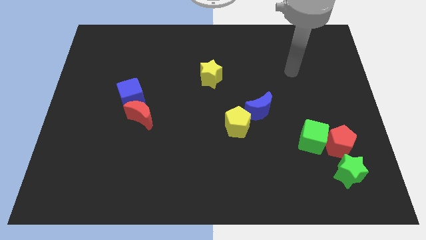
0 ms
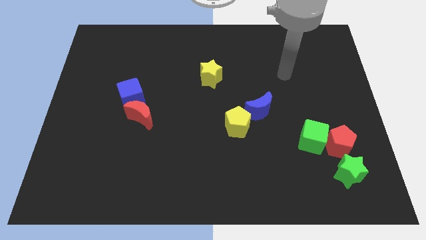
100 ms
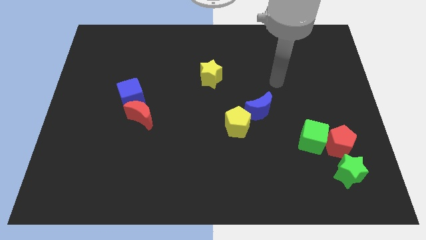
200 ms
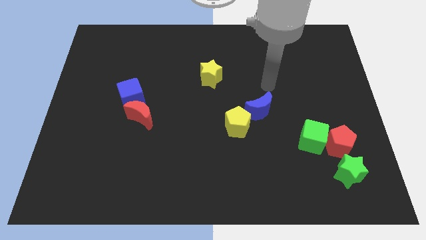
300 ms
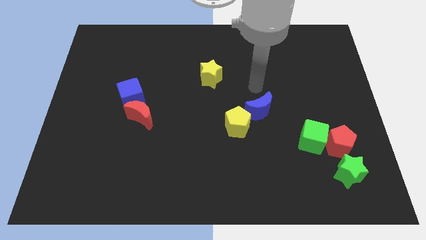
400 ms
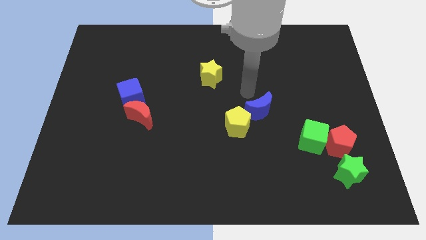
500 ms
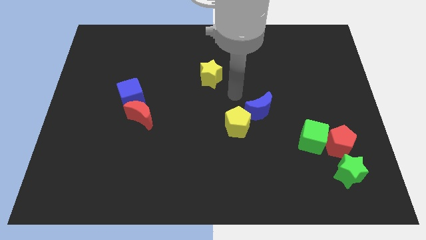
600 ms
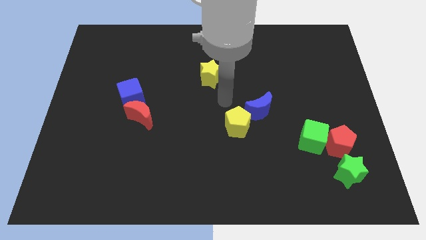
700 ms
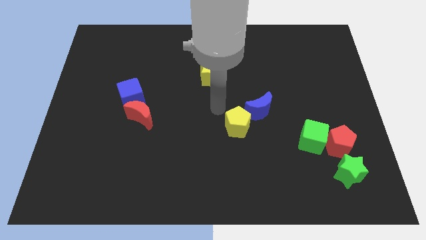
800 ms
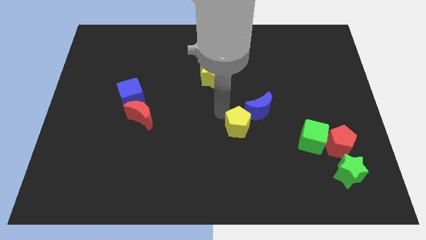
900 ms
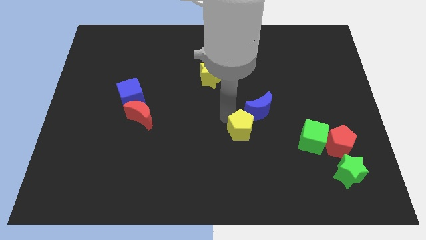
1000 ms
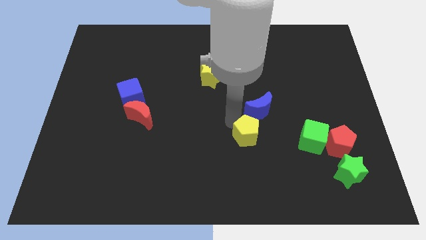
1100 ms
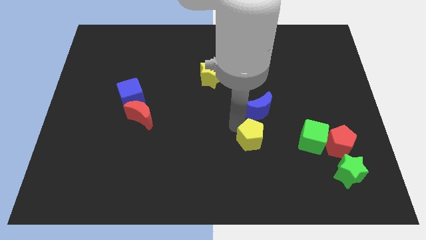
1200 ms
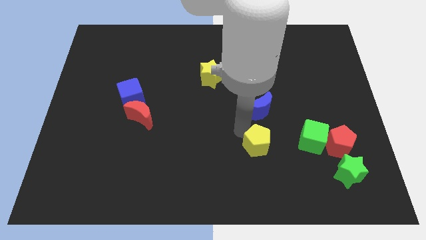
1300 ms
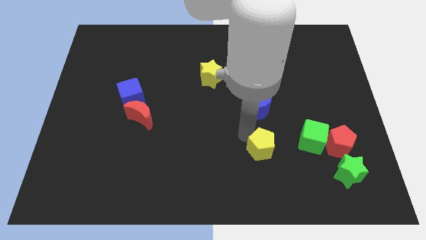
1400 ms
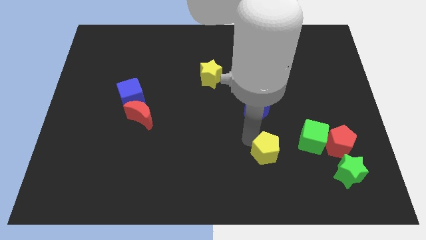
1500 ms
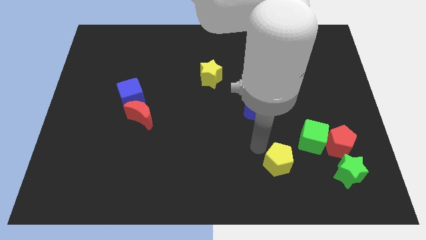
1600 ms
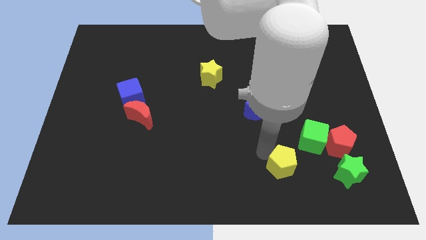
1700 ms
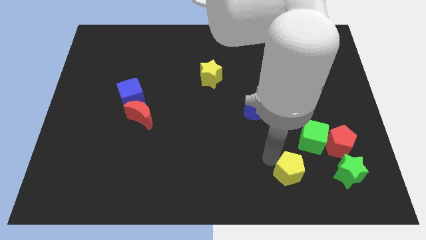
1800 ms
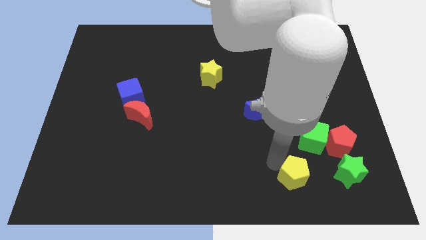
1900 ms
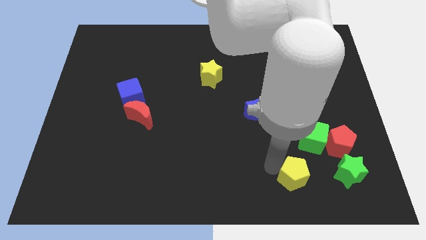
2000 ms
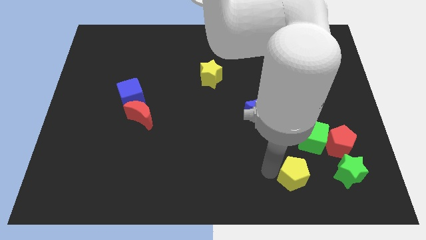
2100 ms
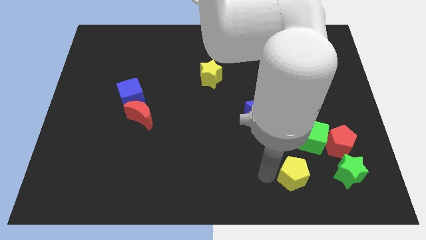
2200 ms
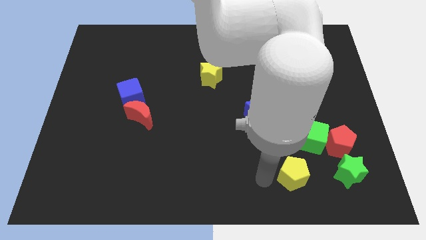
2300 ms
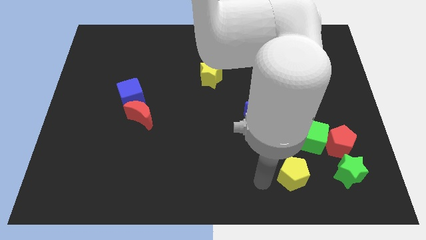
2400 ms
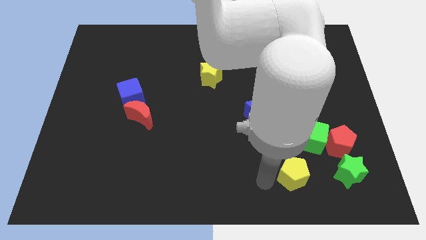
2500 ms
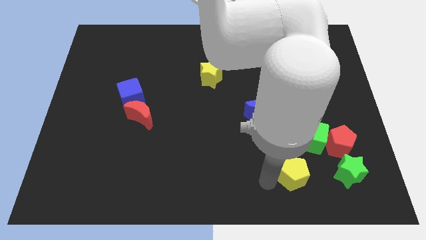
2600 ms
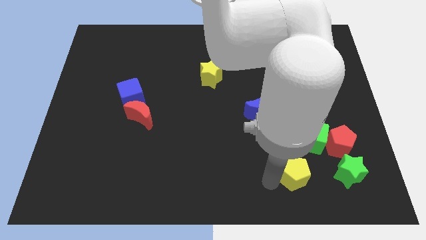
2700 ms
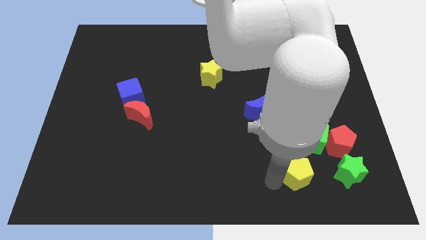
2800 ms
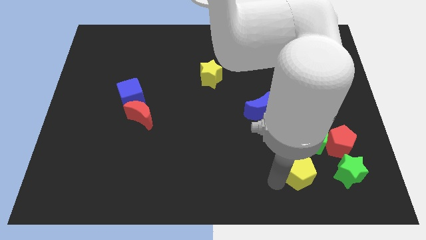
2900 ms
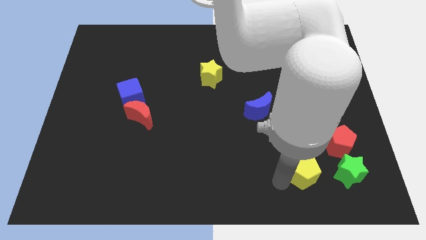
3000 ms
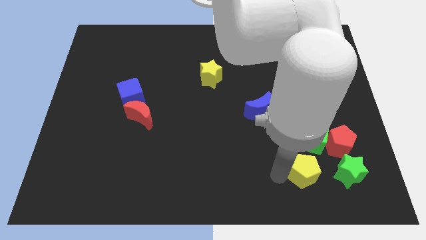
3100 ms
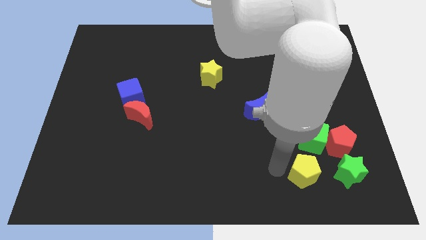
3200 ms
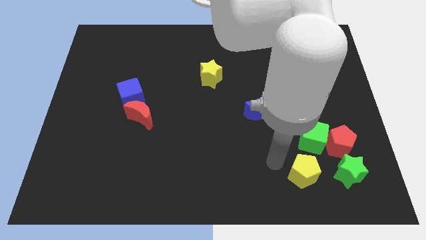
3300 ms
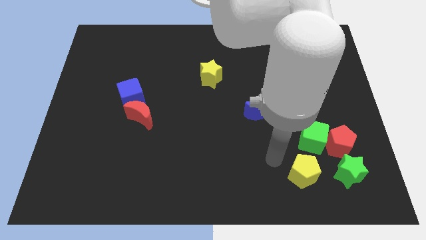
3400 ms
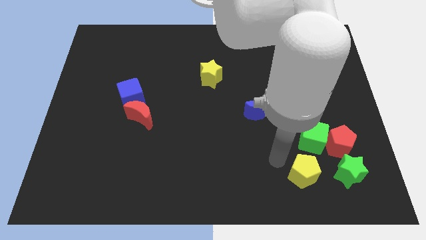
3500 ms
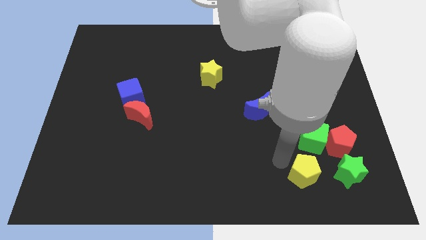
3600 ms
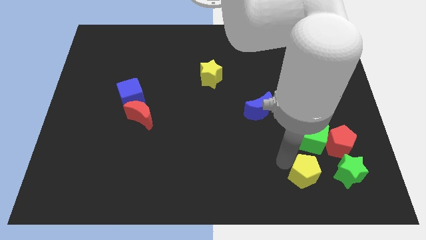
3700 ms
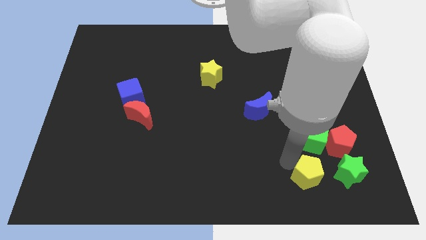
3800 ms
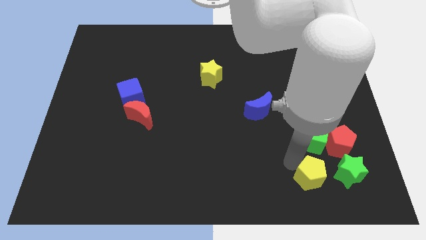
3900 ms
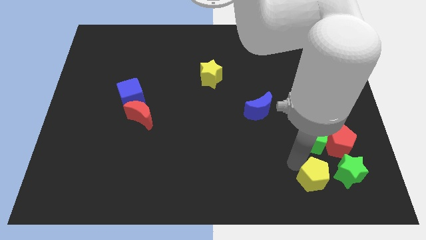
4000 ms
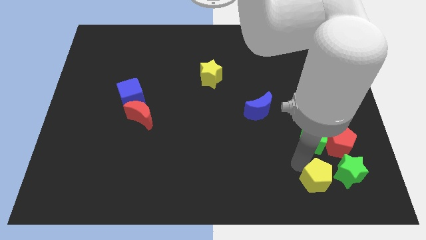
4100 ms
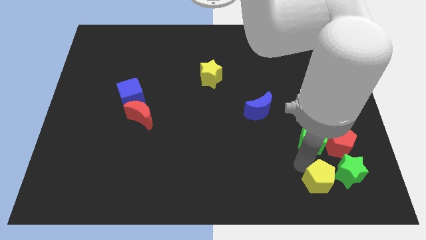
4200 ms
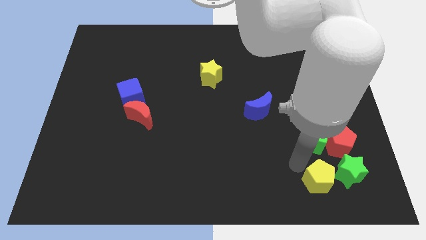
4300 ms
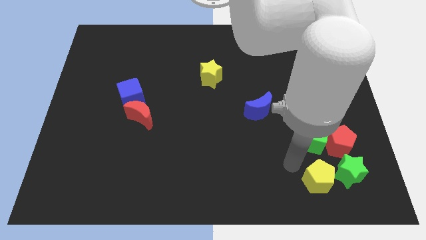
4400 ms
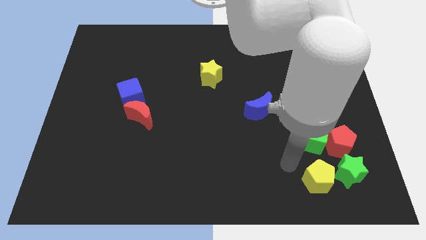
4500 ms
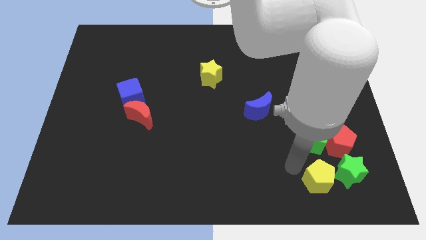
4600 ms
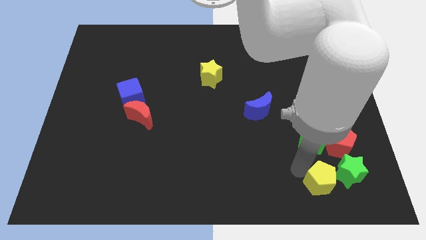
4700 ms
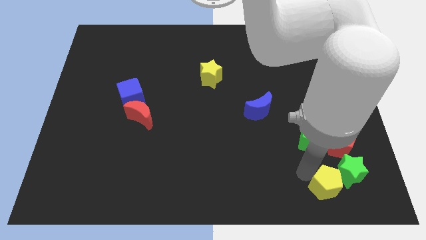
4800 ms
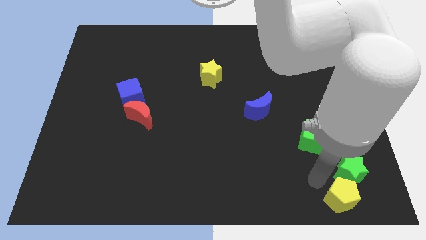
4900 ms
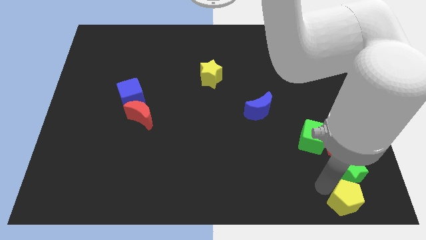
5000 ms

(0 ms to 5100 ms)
move the yellow pentagon to the bottom right corner

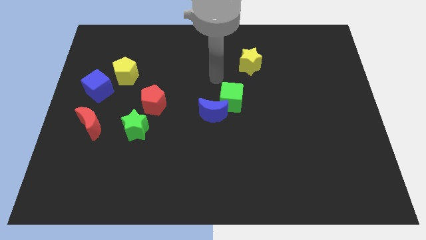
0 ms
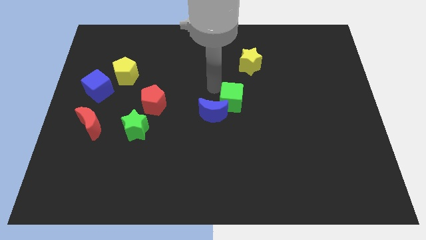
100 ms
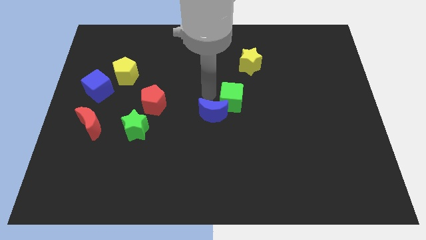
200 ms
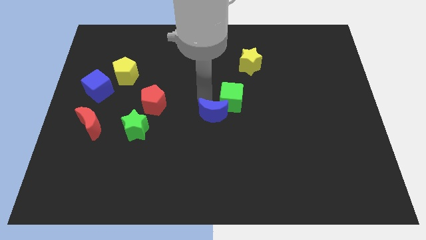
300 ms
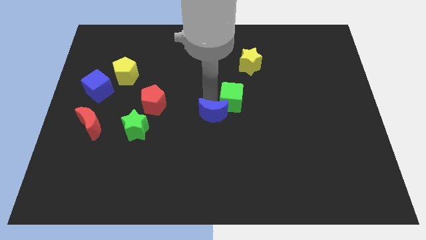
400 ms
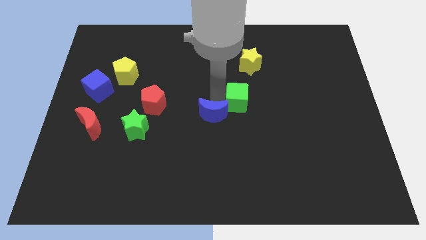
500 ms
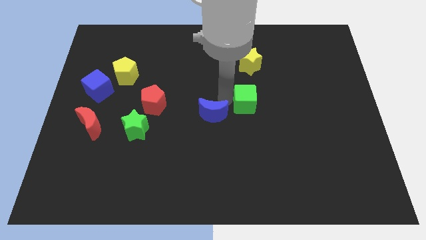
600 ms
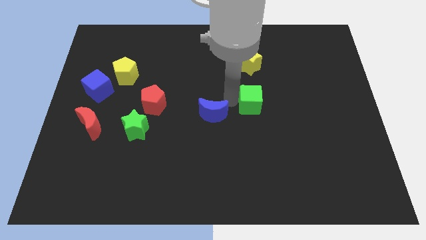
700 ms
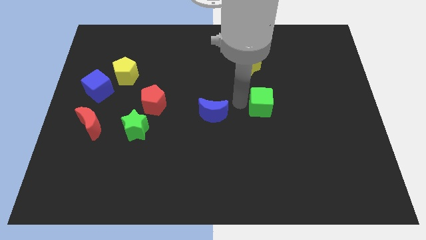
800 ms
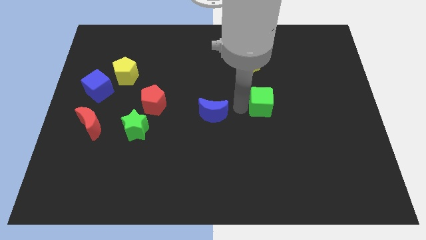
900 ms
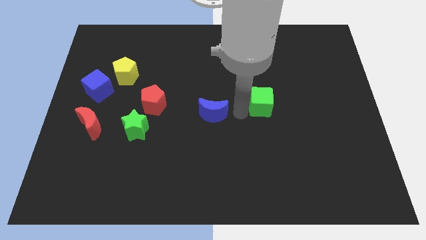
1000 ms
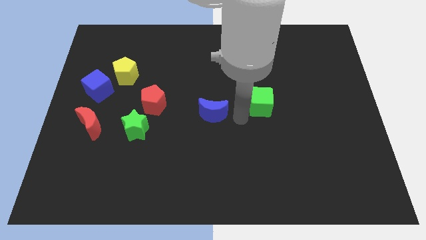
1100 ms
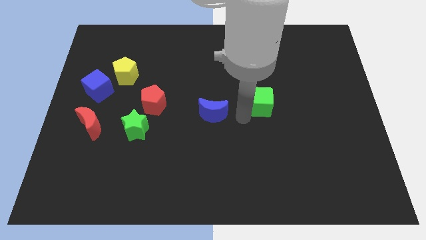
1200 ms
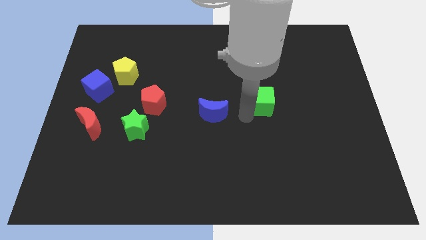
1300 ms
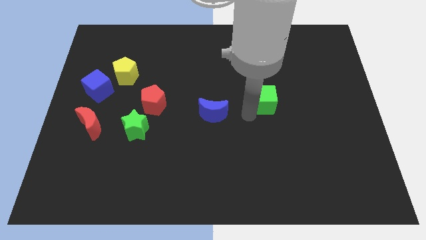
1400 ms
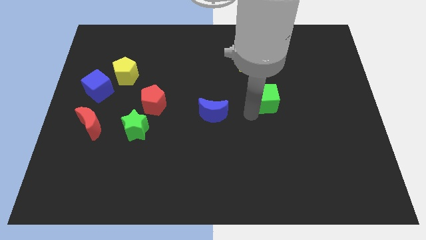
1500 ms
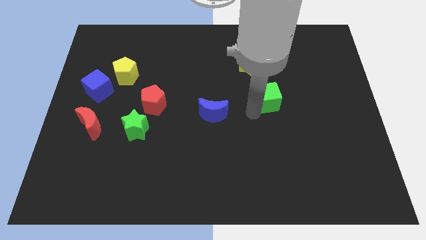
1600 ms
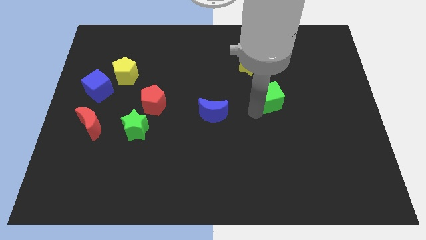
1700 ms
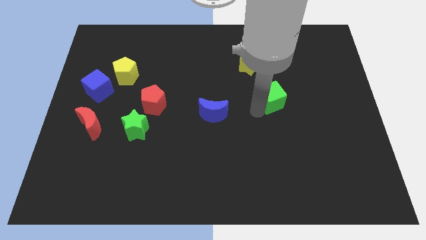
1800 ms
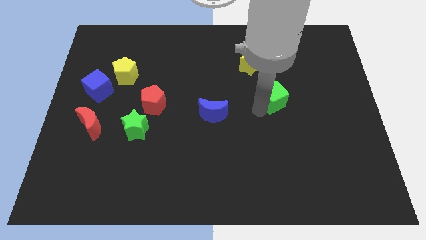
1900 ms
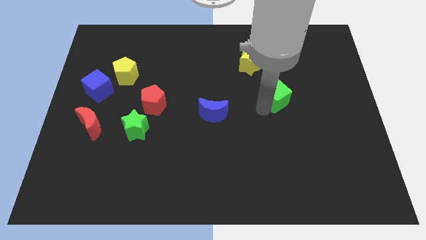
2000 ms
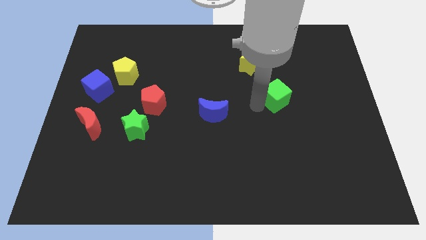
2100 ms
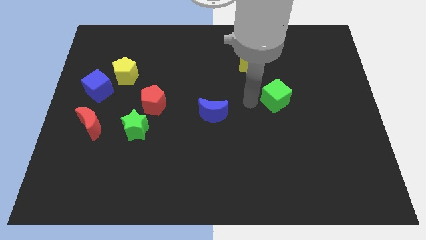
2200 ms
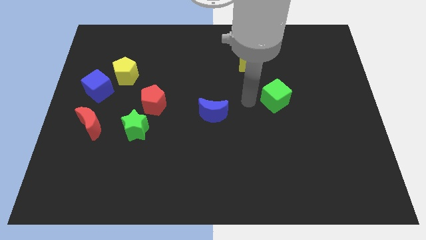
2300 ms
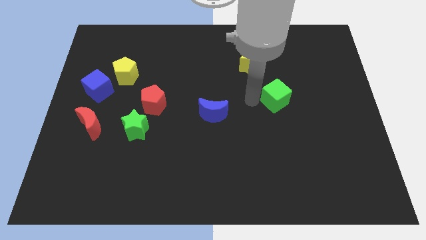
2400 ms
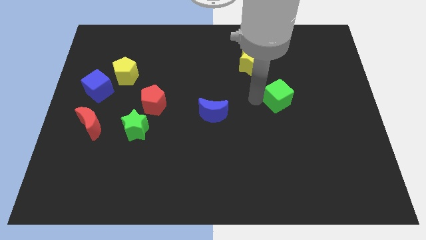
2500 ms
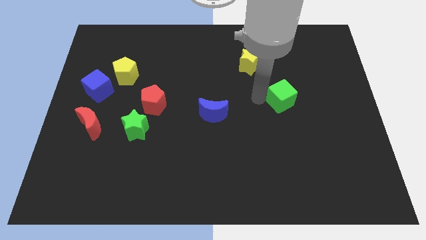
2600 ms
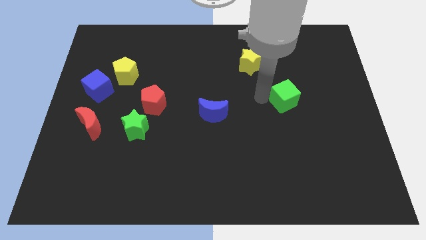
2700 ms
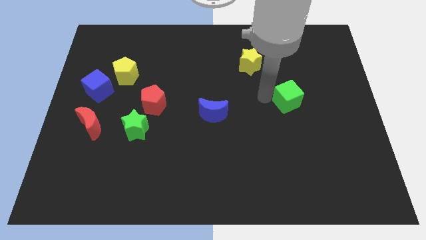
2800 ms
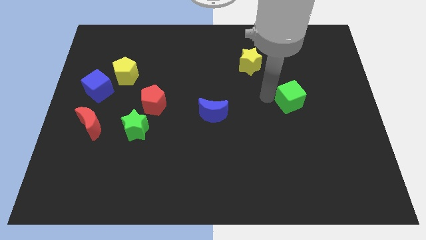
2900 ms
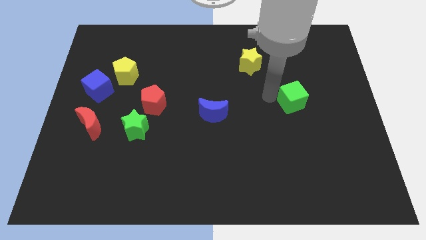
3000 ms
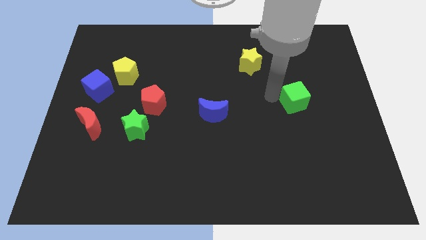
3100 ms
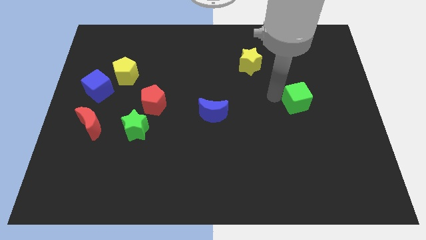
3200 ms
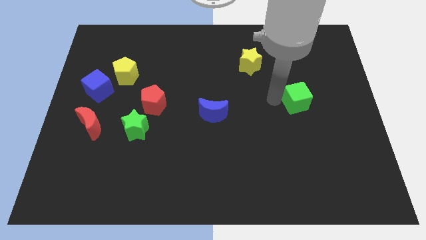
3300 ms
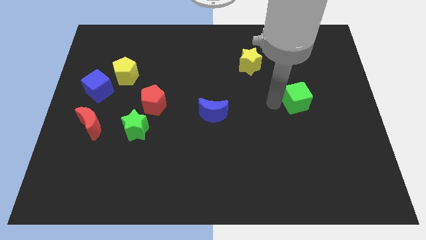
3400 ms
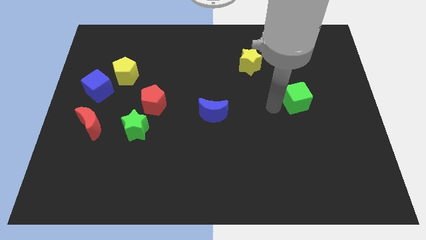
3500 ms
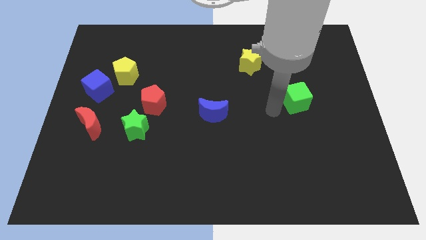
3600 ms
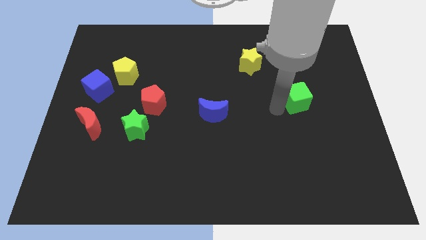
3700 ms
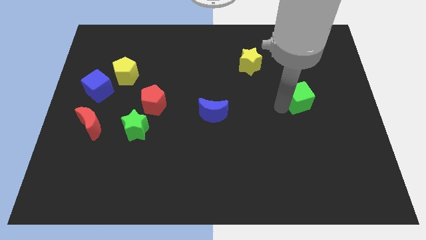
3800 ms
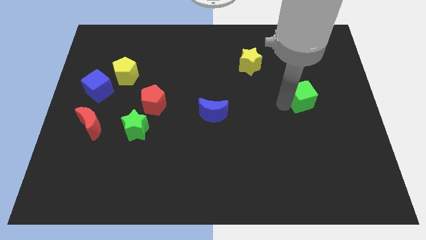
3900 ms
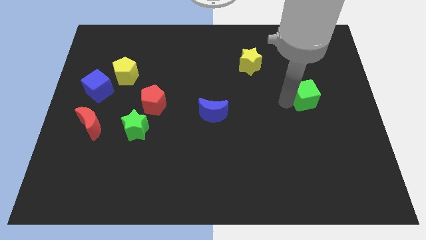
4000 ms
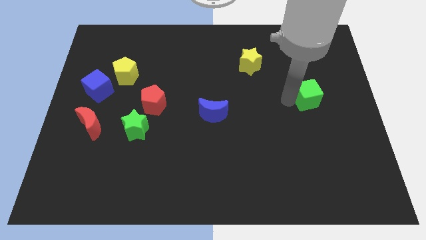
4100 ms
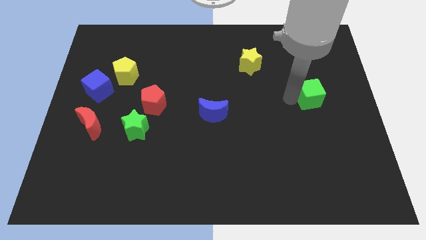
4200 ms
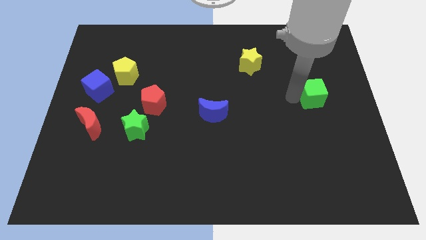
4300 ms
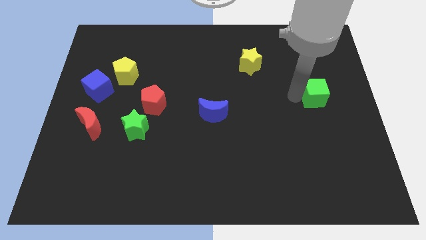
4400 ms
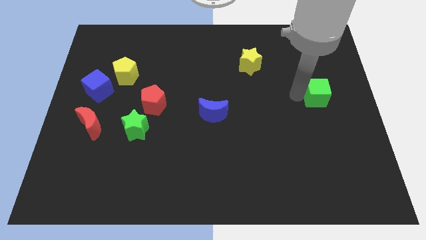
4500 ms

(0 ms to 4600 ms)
move the green cube to the right side of the board
